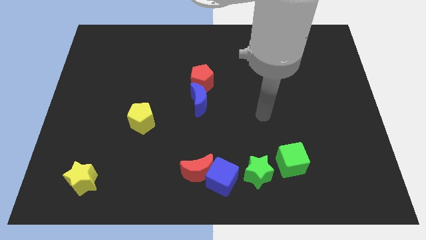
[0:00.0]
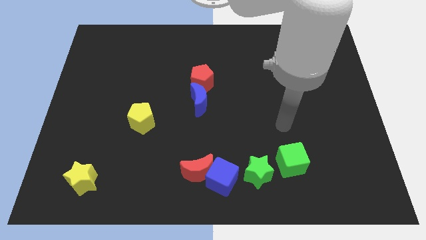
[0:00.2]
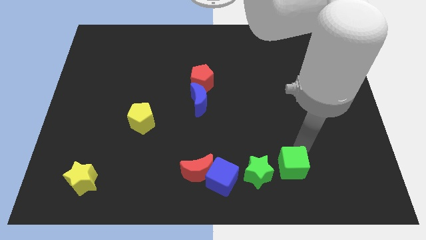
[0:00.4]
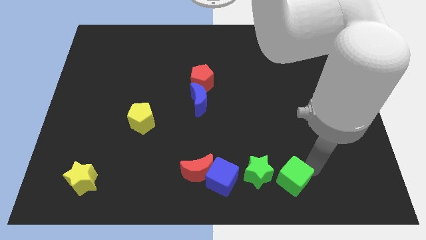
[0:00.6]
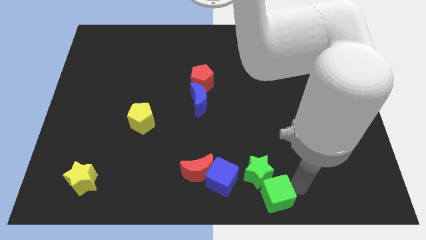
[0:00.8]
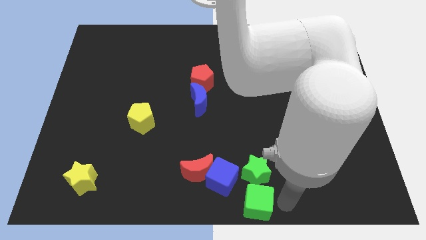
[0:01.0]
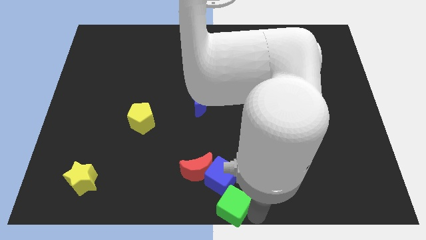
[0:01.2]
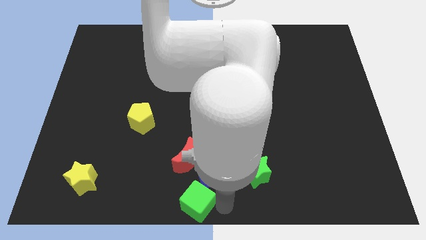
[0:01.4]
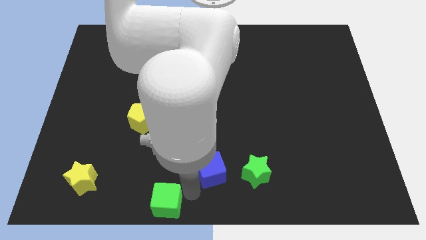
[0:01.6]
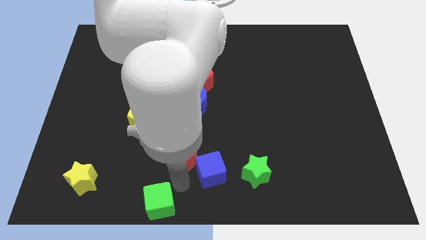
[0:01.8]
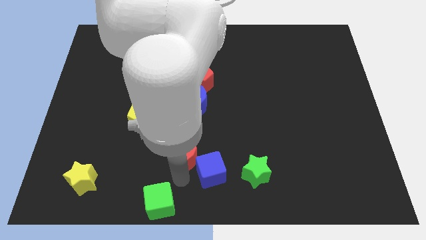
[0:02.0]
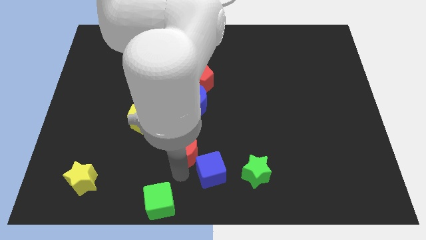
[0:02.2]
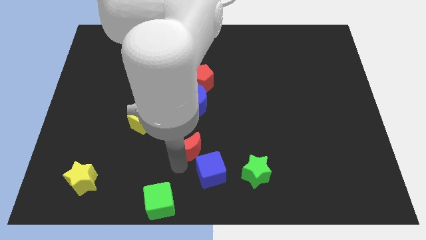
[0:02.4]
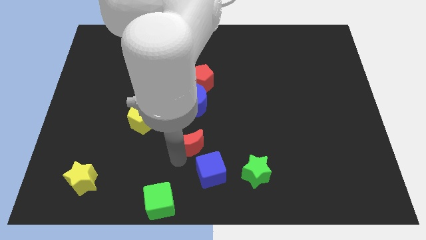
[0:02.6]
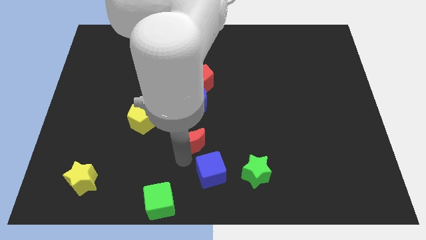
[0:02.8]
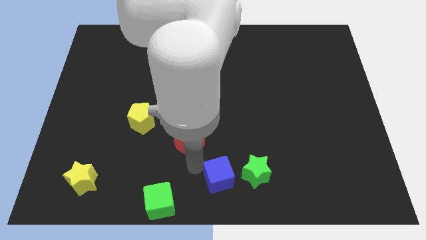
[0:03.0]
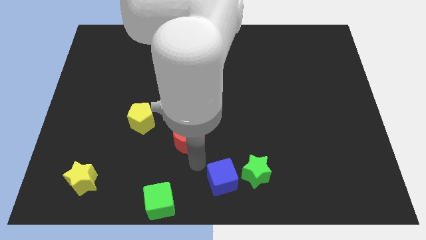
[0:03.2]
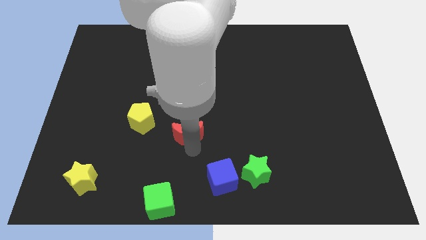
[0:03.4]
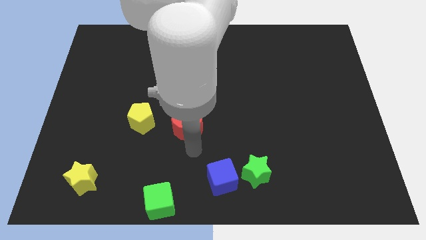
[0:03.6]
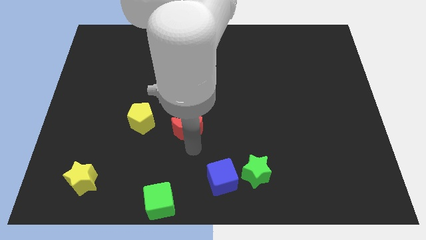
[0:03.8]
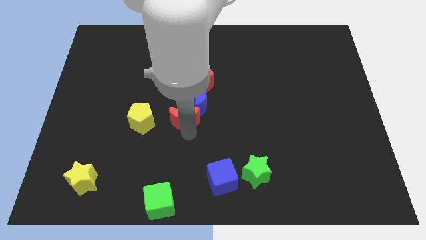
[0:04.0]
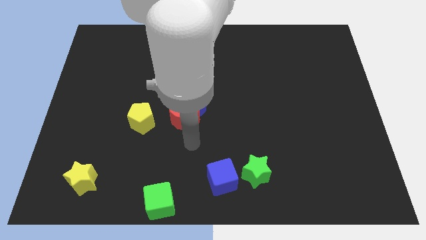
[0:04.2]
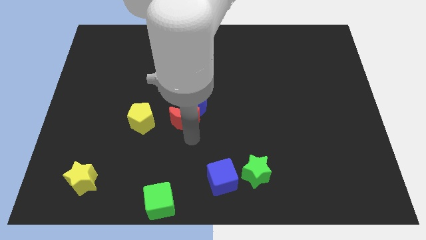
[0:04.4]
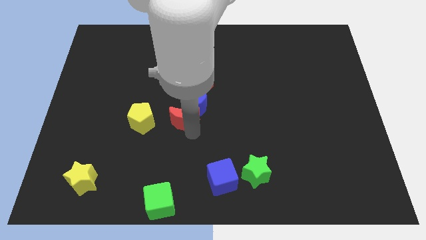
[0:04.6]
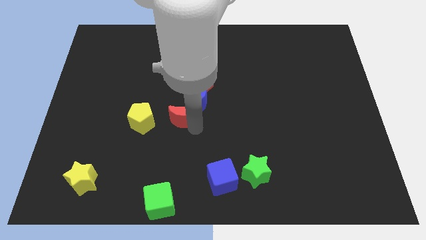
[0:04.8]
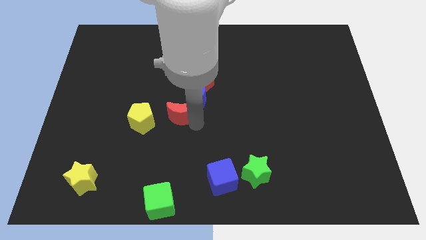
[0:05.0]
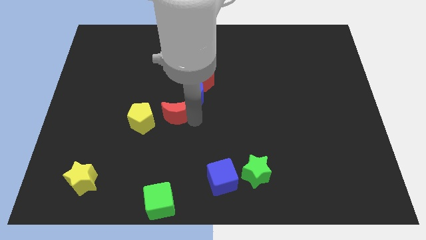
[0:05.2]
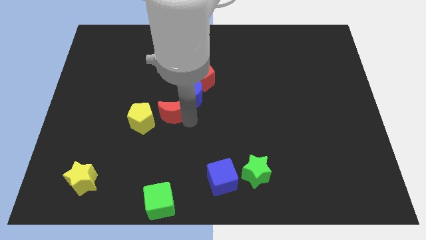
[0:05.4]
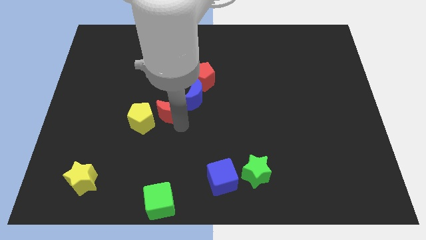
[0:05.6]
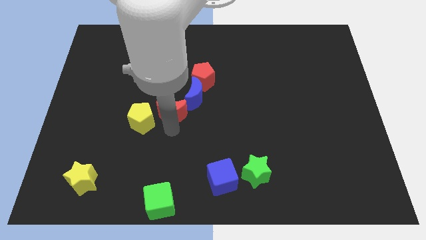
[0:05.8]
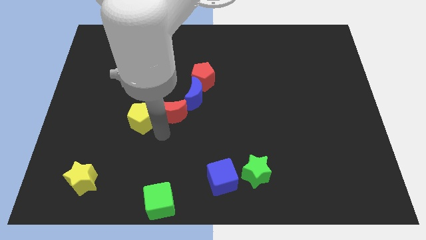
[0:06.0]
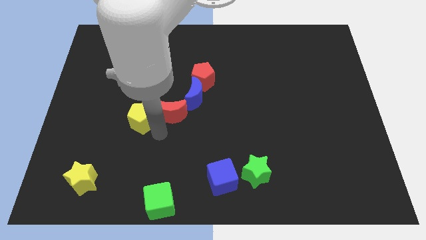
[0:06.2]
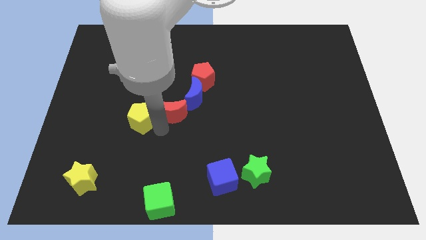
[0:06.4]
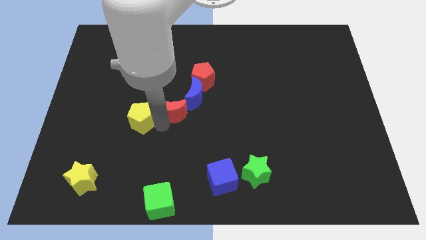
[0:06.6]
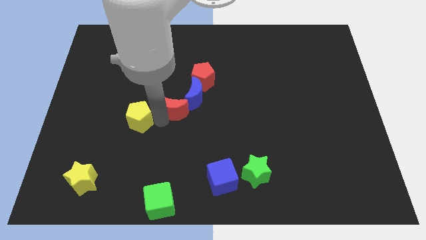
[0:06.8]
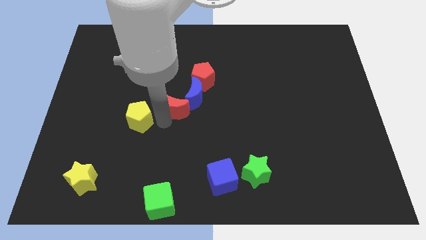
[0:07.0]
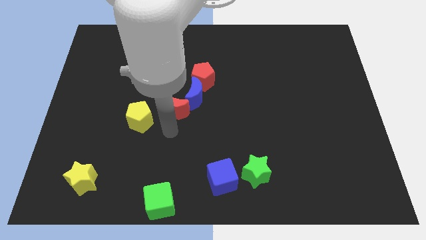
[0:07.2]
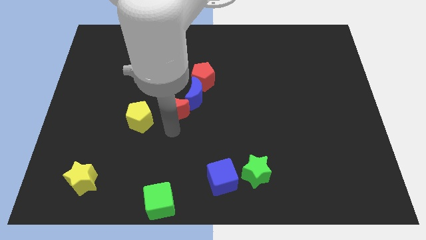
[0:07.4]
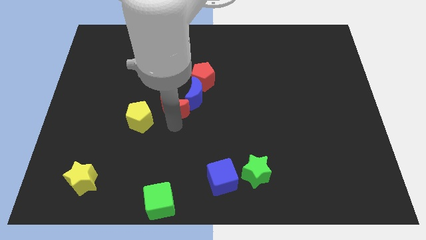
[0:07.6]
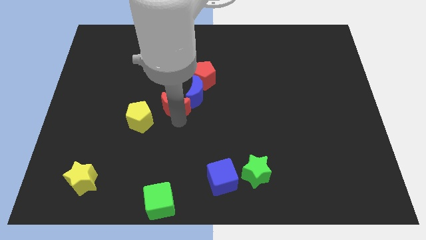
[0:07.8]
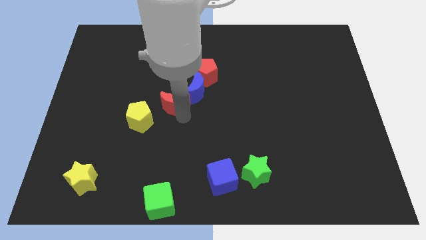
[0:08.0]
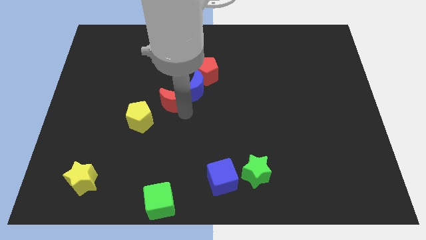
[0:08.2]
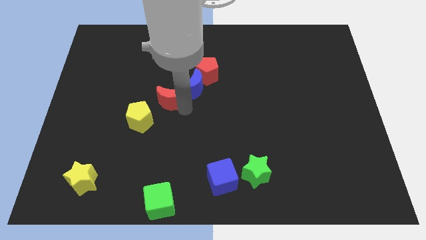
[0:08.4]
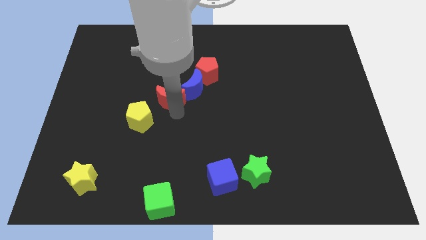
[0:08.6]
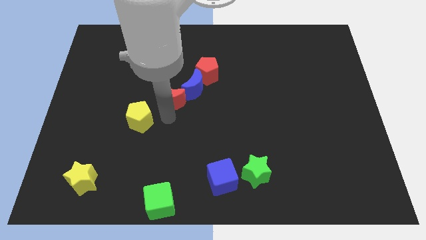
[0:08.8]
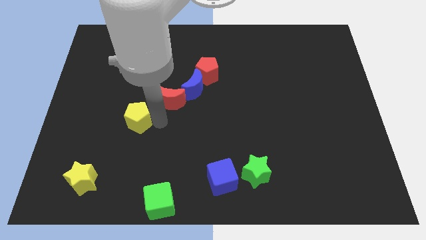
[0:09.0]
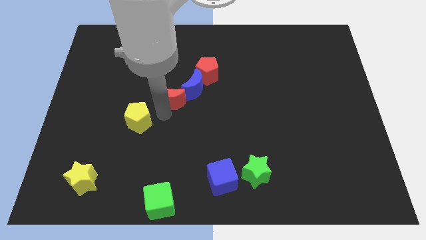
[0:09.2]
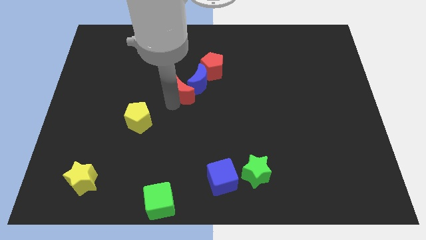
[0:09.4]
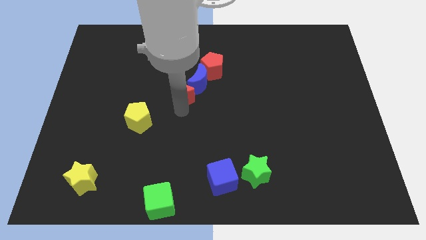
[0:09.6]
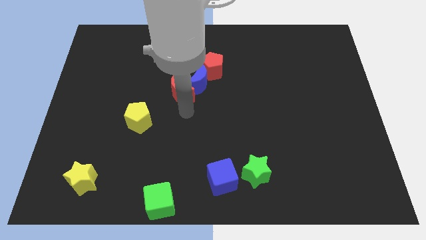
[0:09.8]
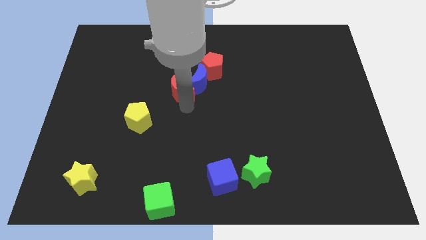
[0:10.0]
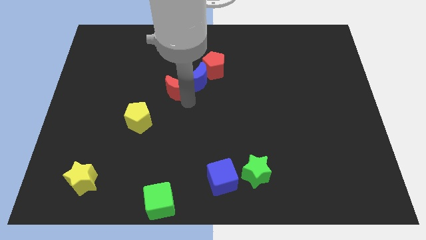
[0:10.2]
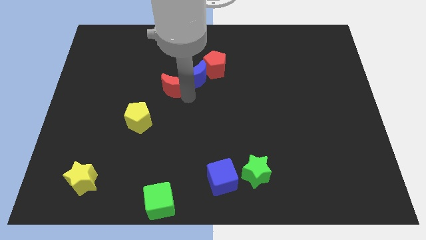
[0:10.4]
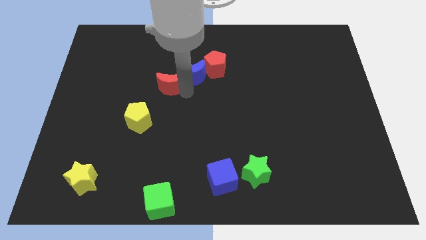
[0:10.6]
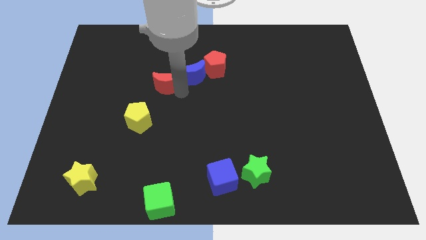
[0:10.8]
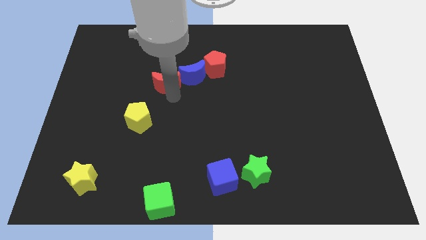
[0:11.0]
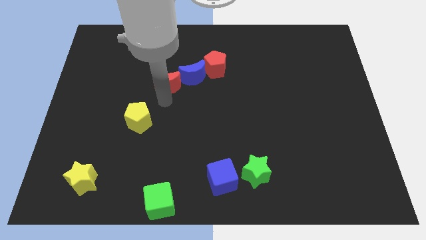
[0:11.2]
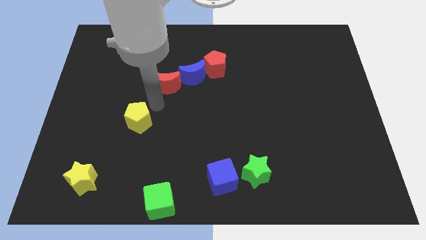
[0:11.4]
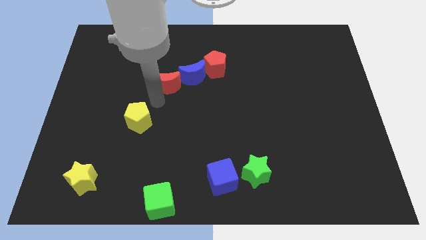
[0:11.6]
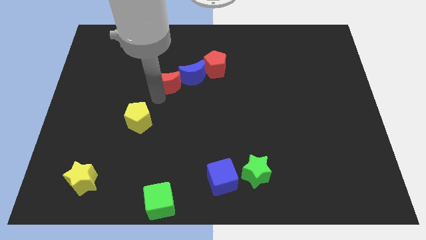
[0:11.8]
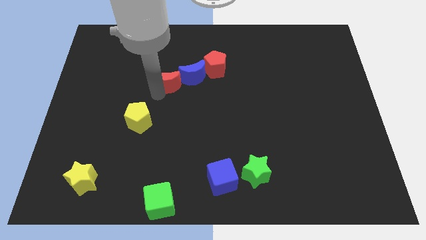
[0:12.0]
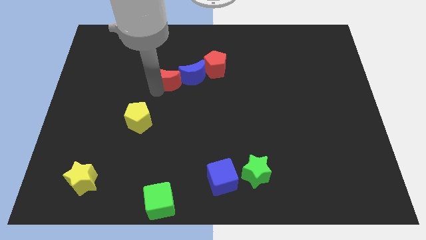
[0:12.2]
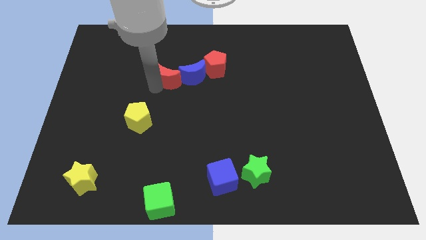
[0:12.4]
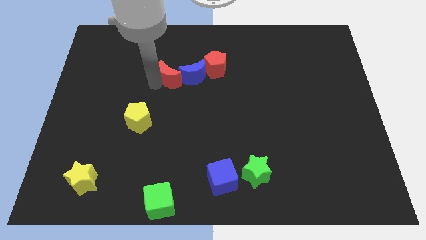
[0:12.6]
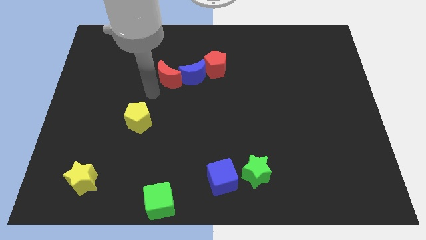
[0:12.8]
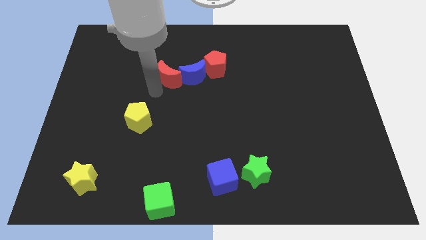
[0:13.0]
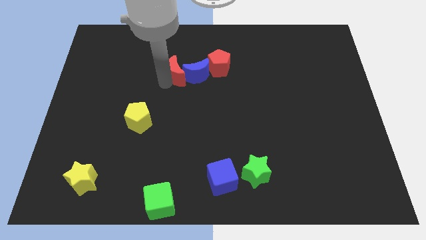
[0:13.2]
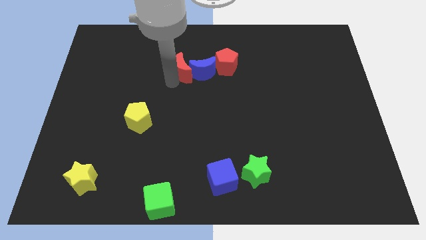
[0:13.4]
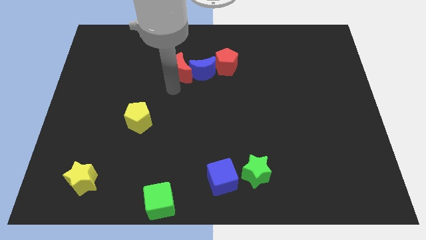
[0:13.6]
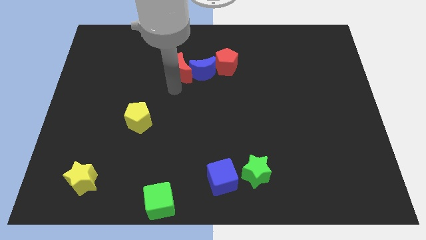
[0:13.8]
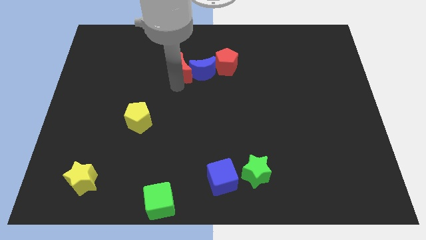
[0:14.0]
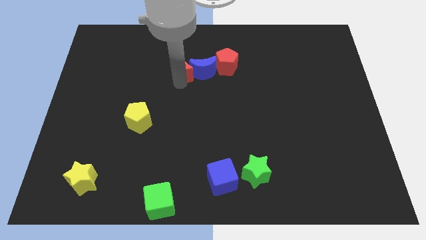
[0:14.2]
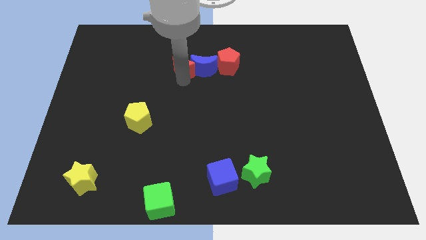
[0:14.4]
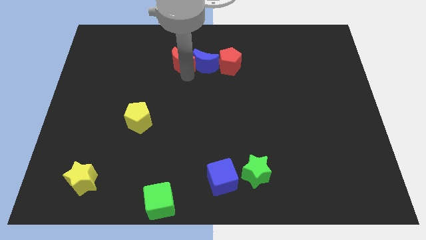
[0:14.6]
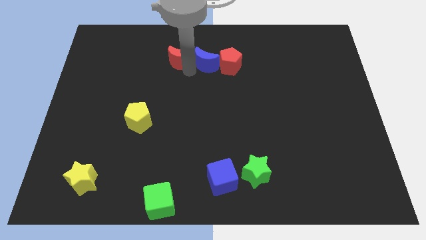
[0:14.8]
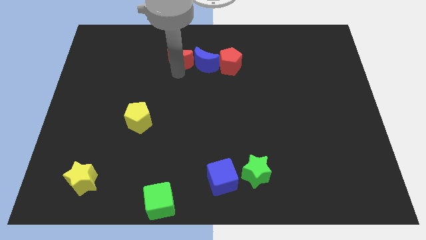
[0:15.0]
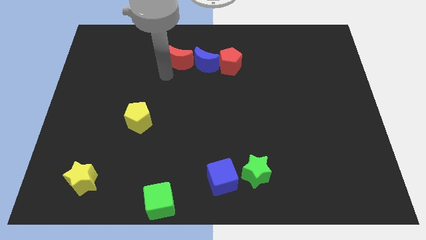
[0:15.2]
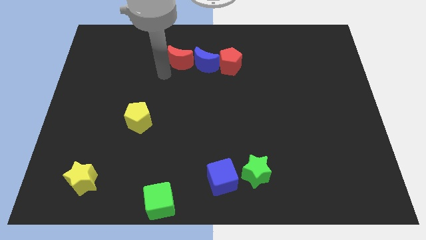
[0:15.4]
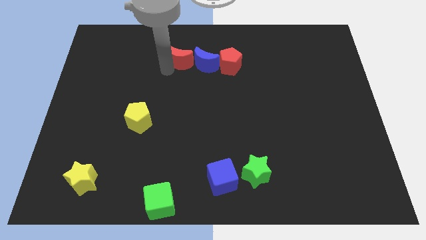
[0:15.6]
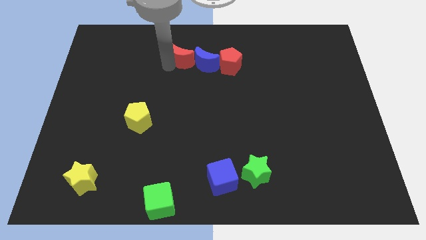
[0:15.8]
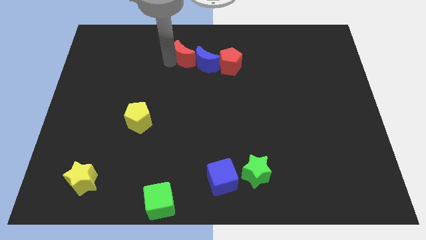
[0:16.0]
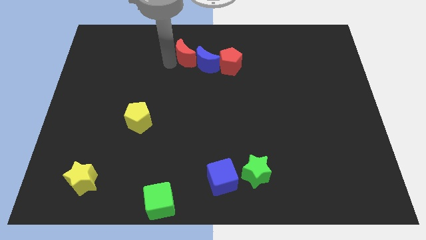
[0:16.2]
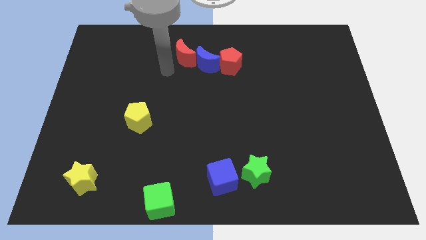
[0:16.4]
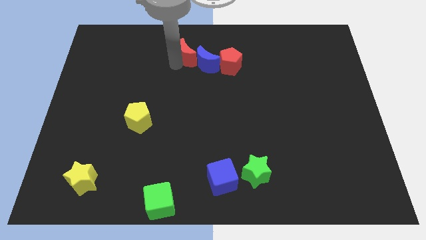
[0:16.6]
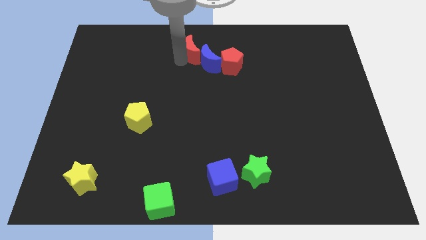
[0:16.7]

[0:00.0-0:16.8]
push the red moon to the top
